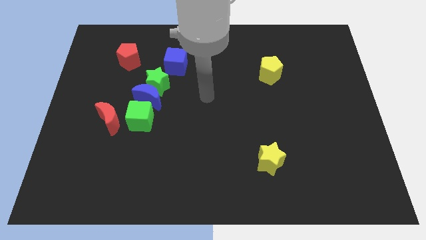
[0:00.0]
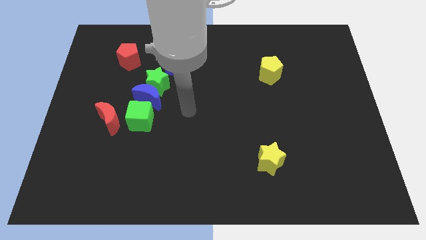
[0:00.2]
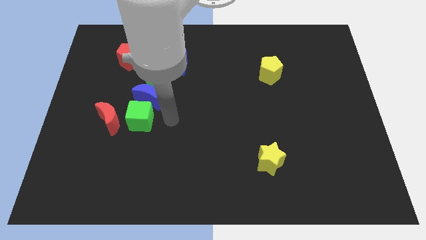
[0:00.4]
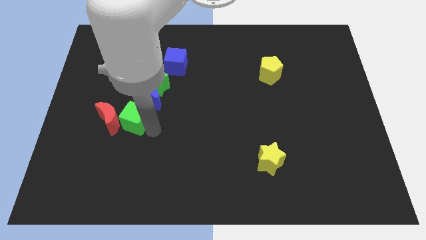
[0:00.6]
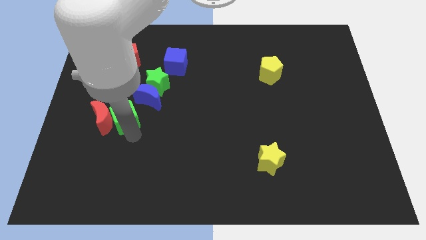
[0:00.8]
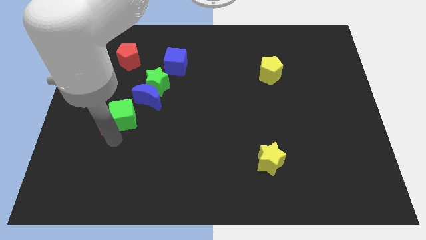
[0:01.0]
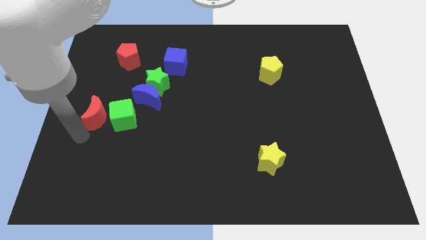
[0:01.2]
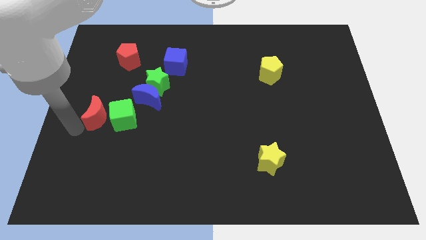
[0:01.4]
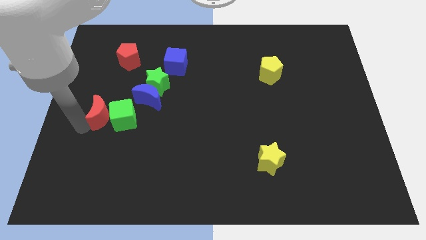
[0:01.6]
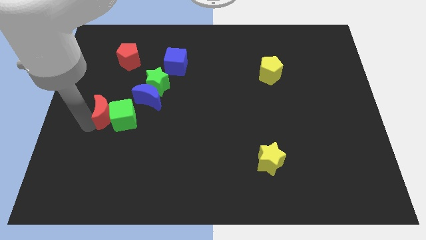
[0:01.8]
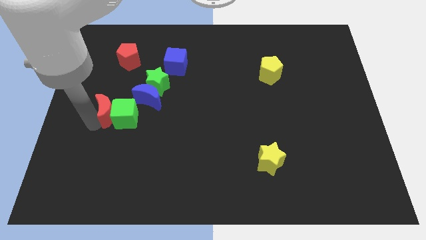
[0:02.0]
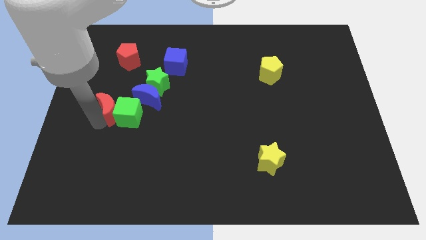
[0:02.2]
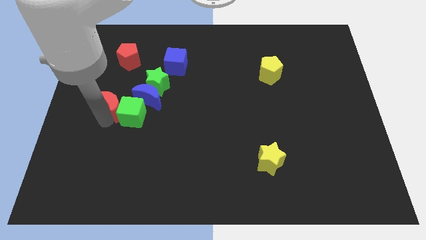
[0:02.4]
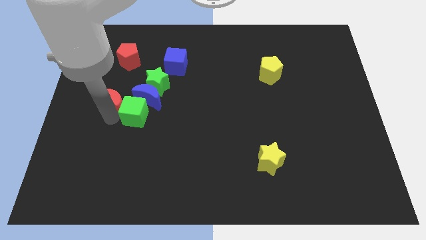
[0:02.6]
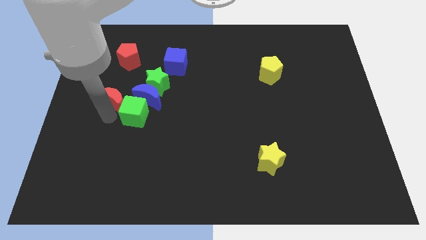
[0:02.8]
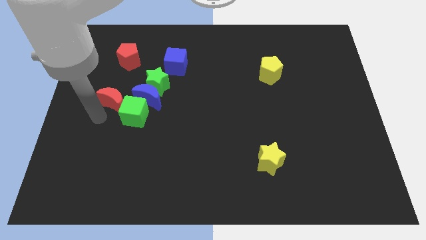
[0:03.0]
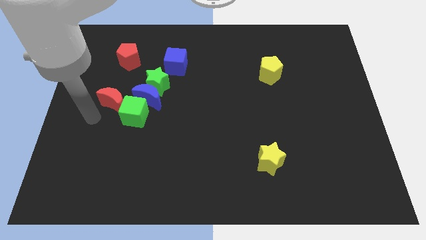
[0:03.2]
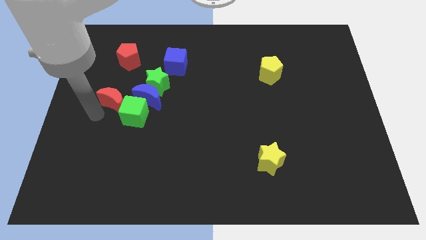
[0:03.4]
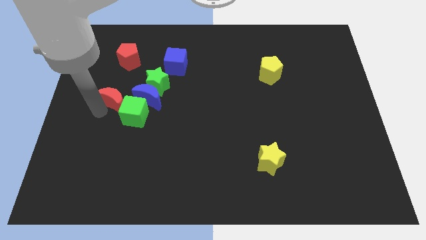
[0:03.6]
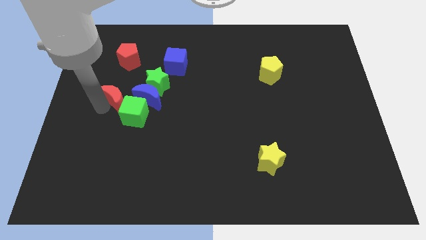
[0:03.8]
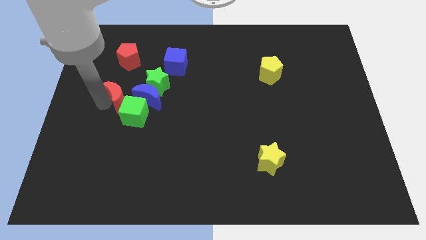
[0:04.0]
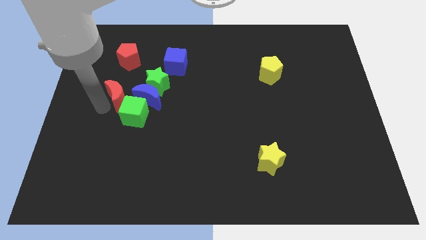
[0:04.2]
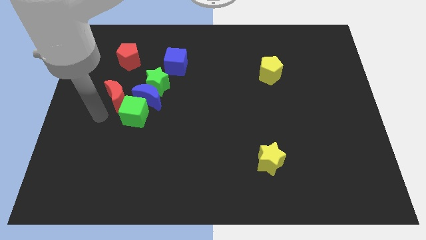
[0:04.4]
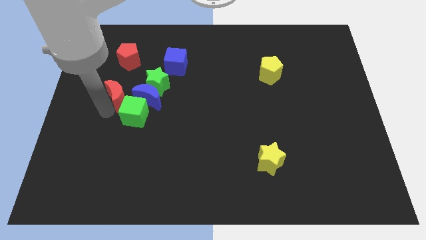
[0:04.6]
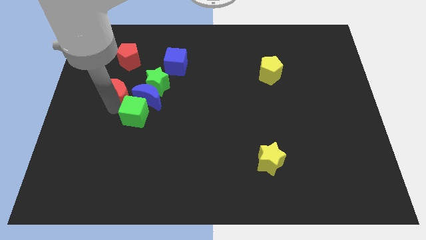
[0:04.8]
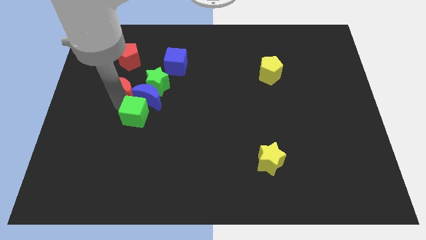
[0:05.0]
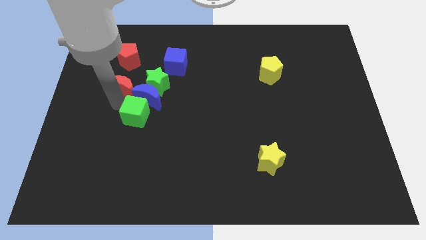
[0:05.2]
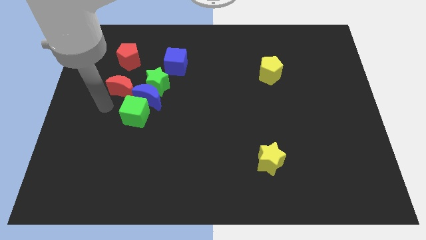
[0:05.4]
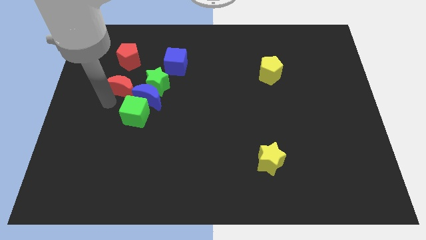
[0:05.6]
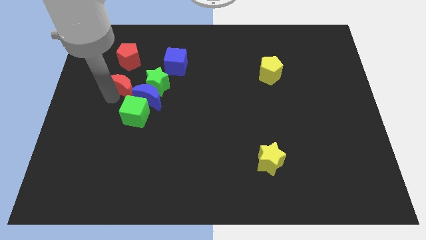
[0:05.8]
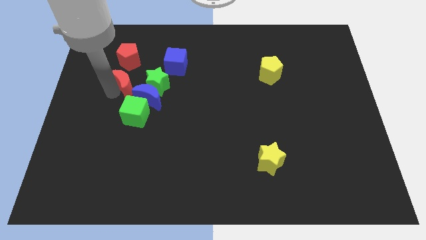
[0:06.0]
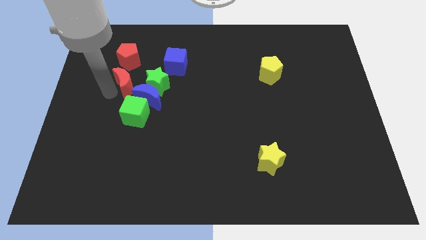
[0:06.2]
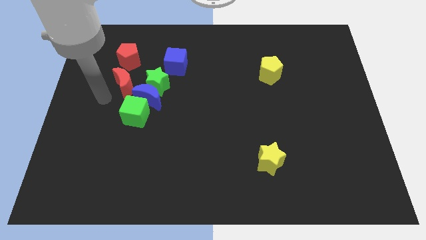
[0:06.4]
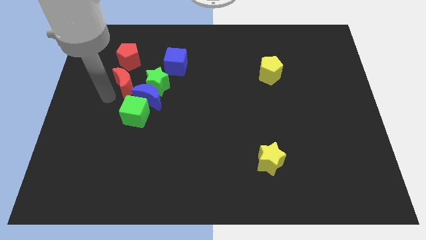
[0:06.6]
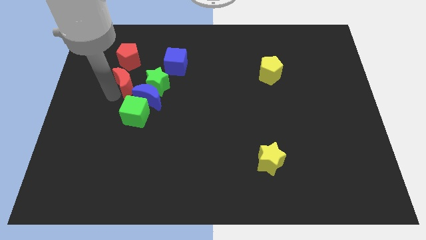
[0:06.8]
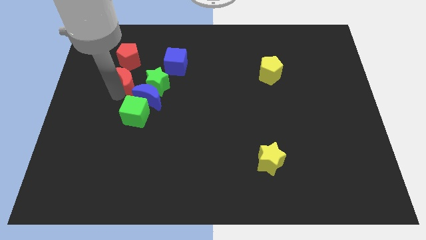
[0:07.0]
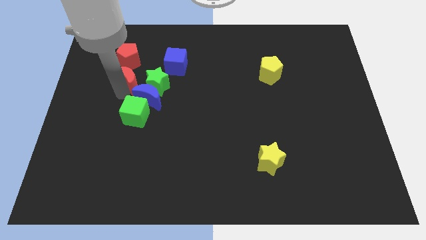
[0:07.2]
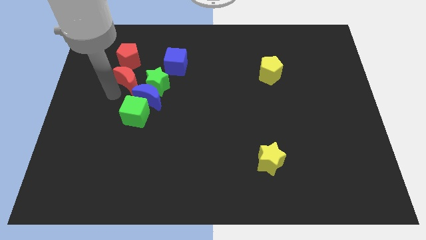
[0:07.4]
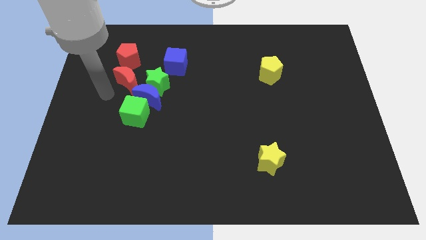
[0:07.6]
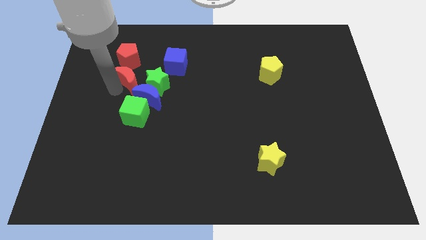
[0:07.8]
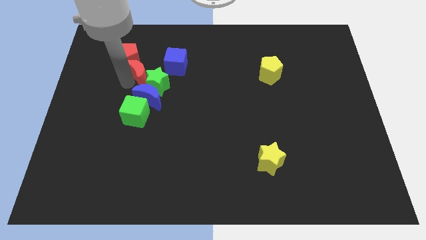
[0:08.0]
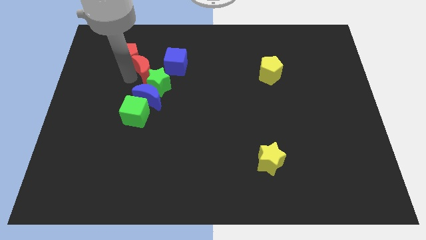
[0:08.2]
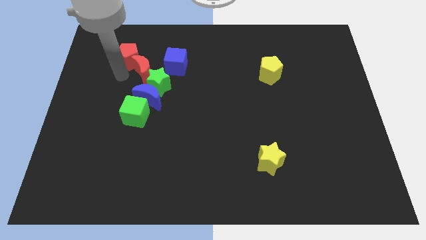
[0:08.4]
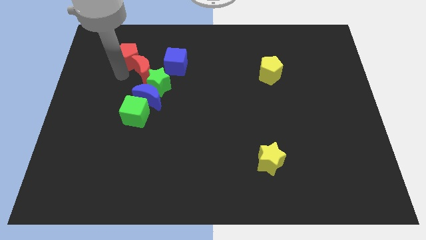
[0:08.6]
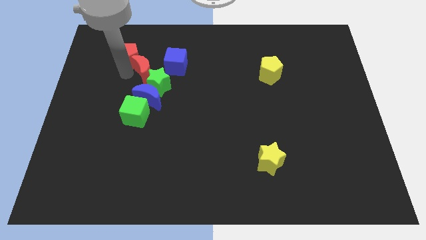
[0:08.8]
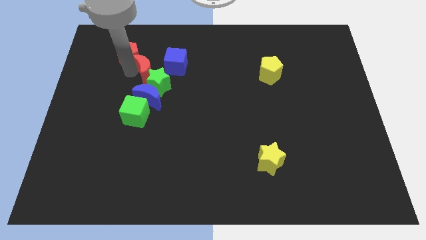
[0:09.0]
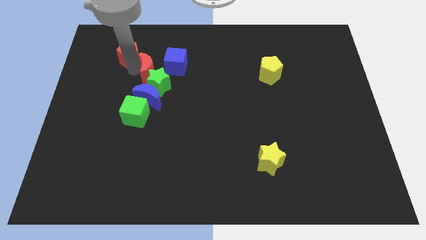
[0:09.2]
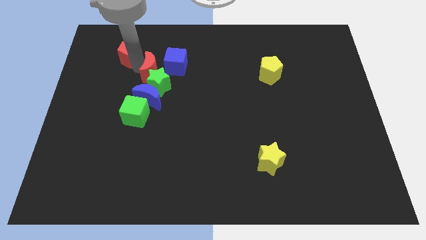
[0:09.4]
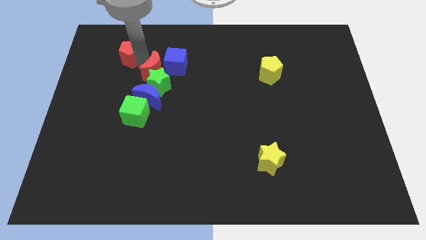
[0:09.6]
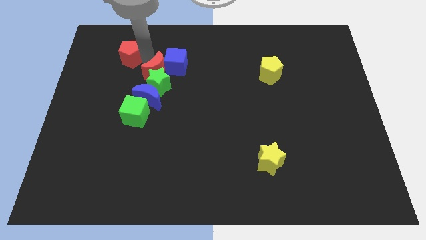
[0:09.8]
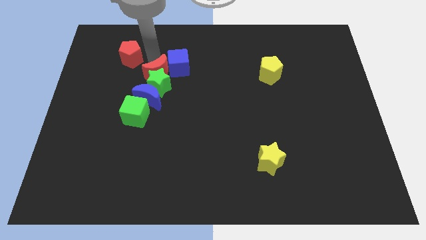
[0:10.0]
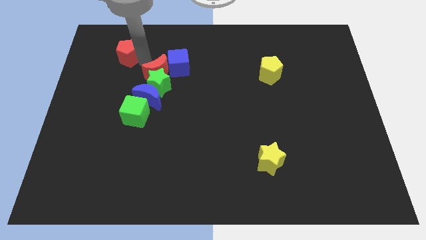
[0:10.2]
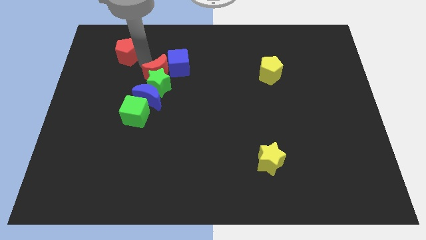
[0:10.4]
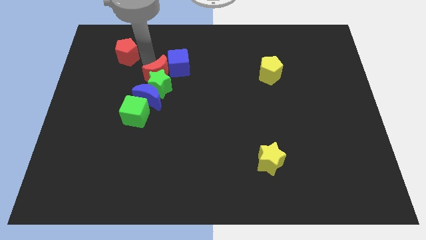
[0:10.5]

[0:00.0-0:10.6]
push the red moon diagonally up and to the right of the blue moon

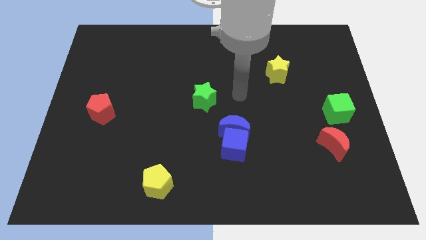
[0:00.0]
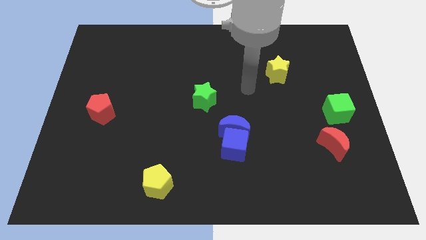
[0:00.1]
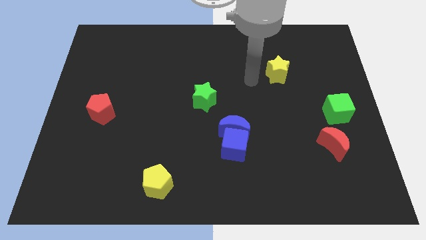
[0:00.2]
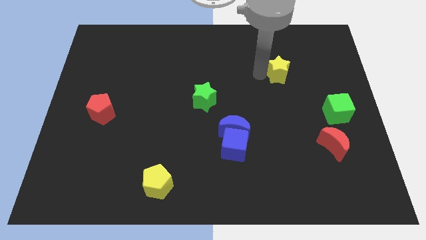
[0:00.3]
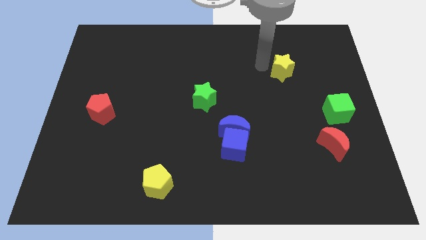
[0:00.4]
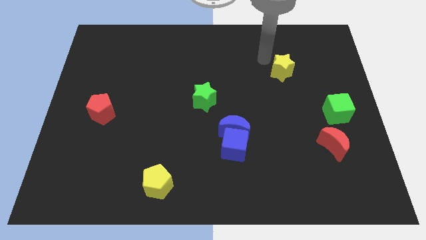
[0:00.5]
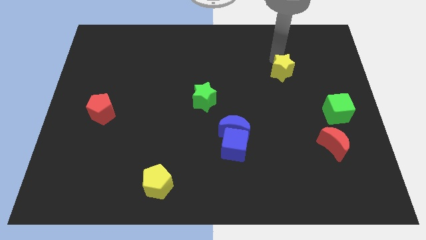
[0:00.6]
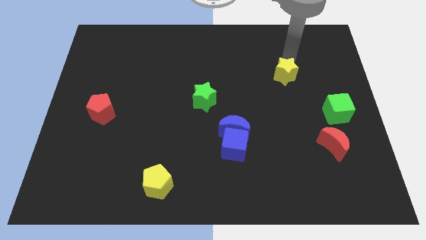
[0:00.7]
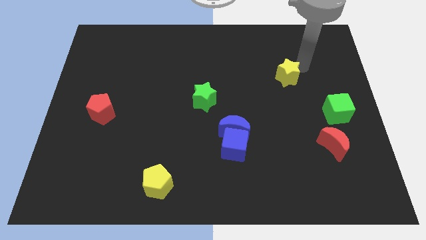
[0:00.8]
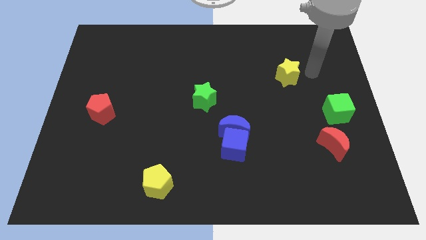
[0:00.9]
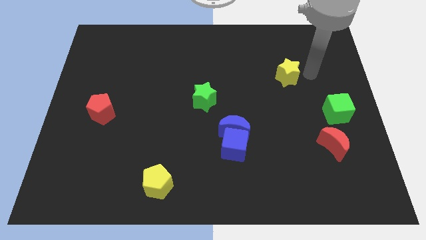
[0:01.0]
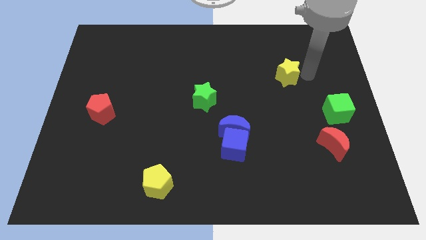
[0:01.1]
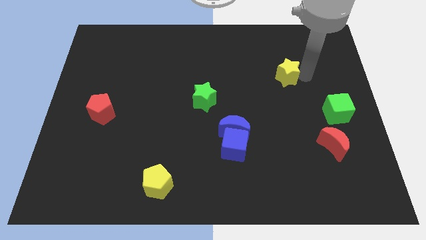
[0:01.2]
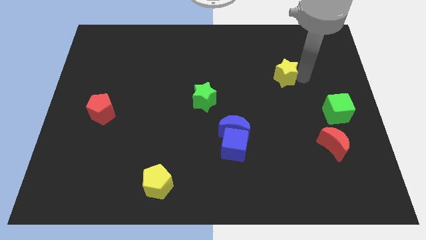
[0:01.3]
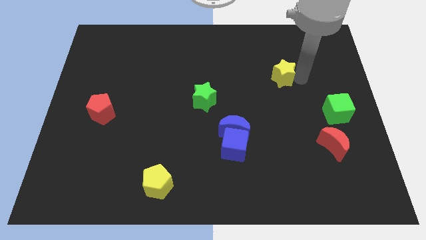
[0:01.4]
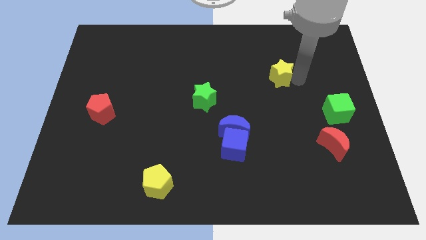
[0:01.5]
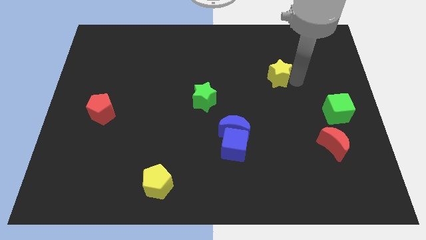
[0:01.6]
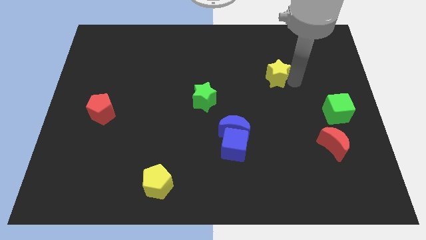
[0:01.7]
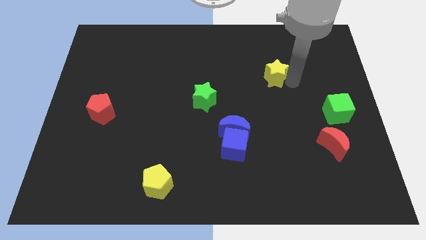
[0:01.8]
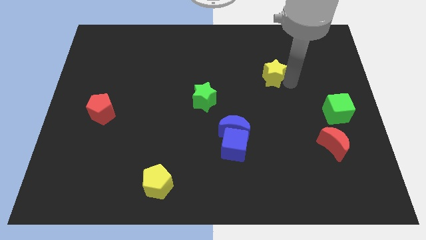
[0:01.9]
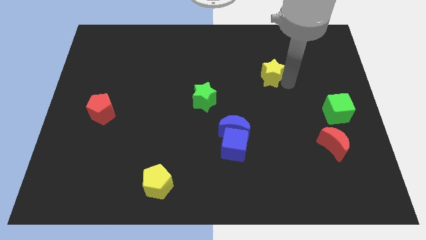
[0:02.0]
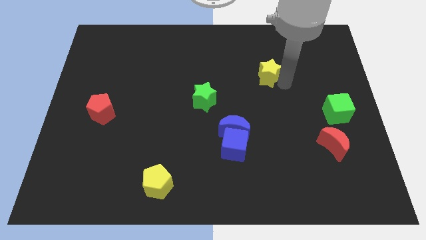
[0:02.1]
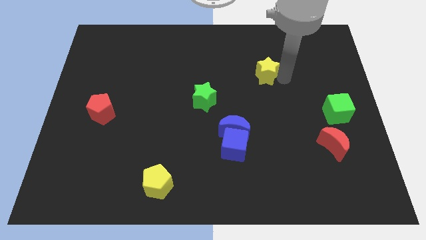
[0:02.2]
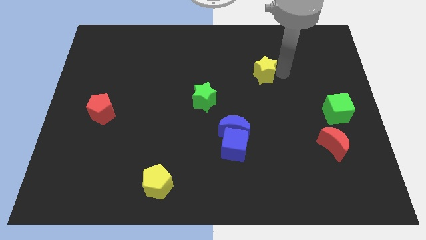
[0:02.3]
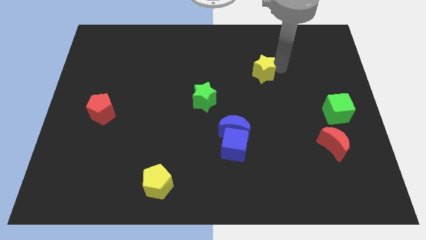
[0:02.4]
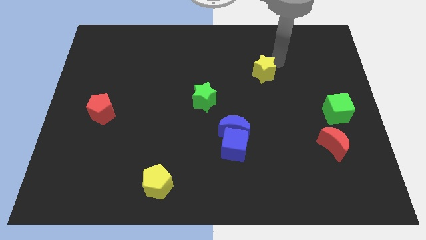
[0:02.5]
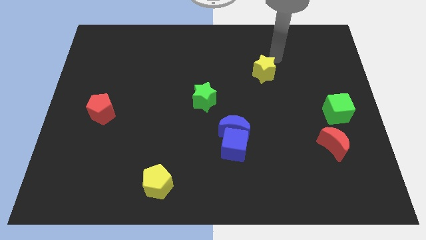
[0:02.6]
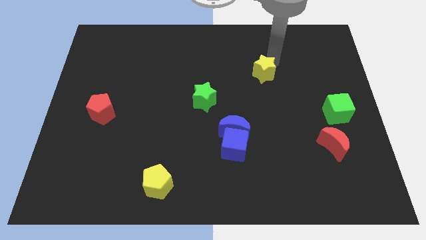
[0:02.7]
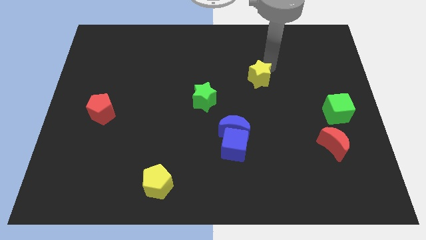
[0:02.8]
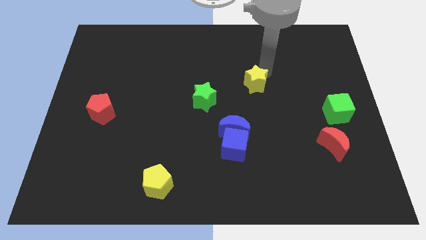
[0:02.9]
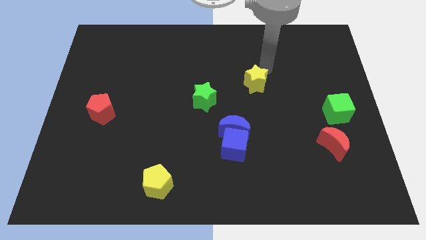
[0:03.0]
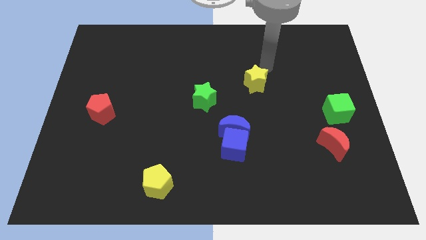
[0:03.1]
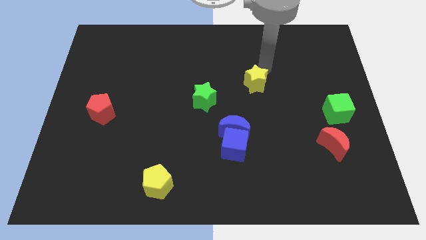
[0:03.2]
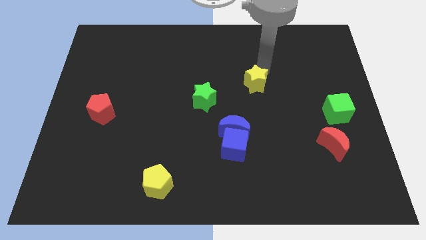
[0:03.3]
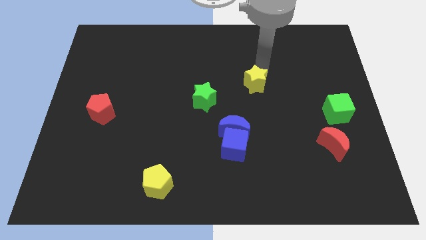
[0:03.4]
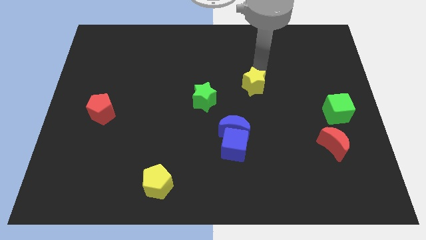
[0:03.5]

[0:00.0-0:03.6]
push the yellow star to the right of the green star
